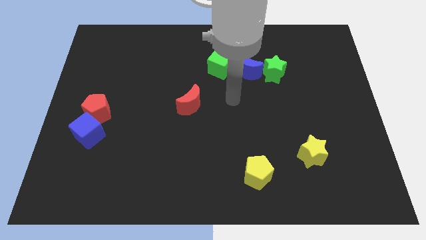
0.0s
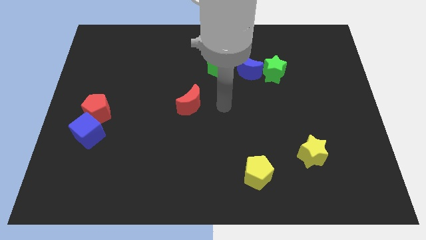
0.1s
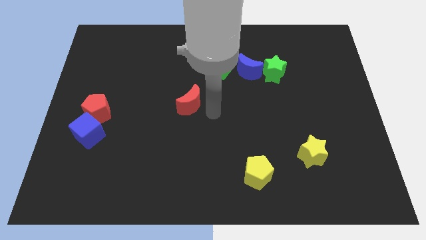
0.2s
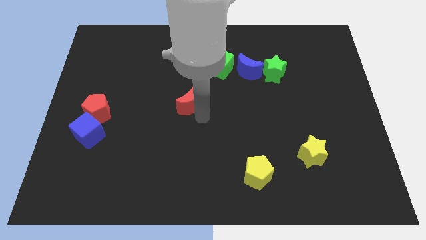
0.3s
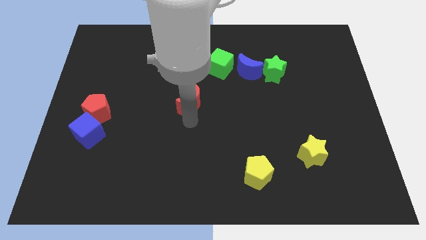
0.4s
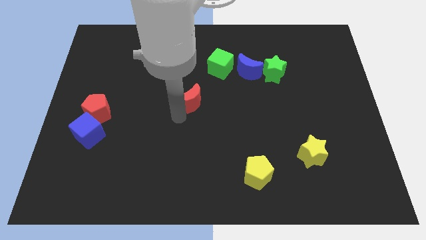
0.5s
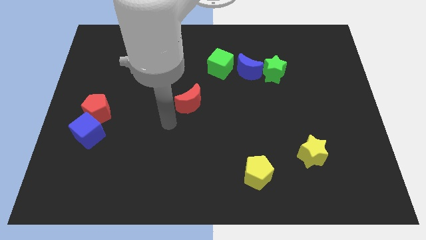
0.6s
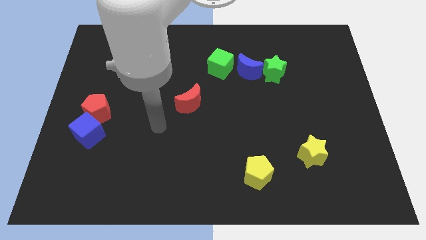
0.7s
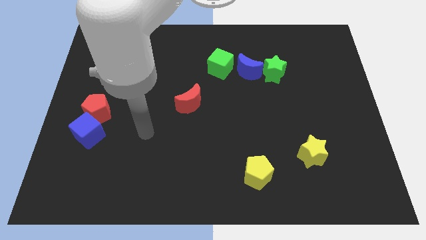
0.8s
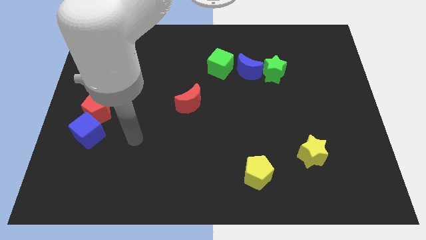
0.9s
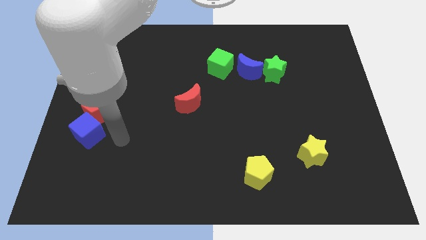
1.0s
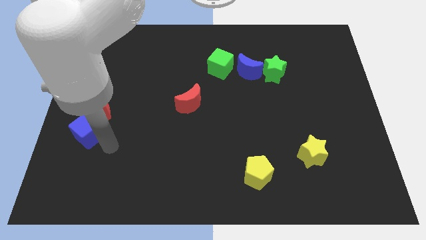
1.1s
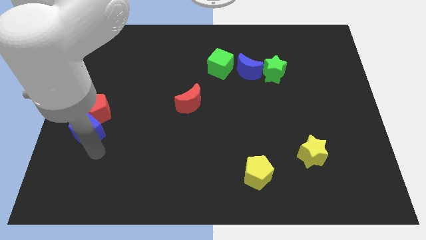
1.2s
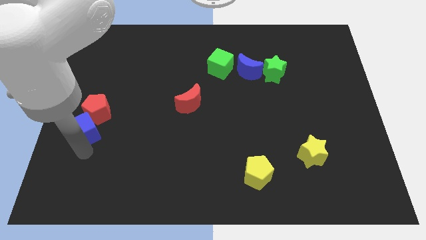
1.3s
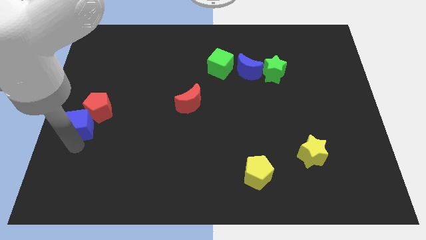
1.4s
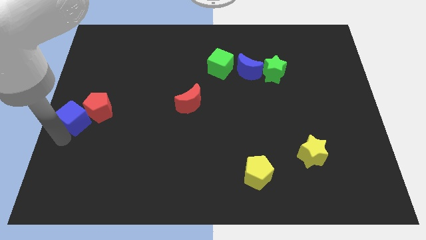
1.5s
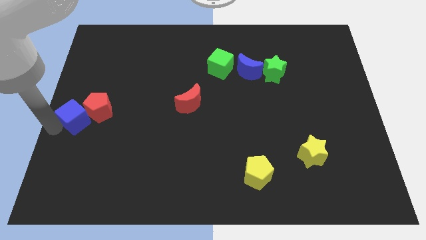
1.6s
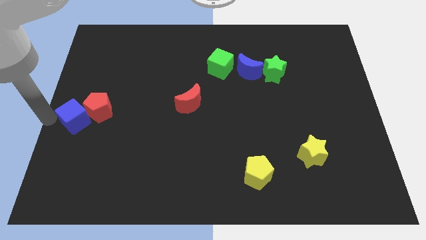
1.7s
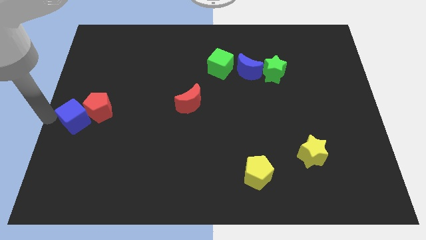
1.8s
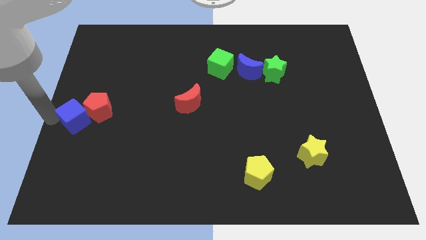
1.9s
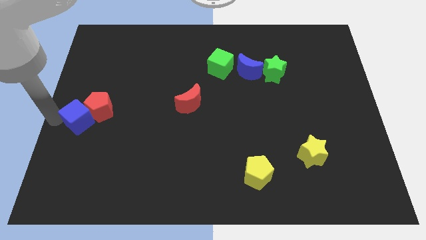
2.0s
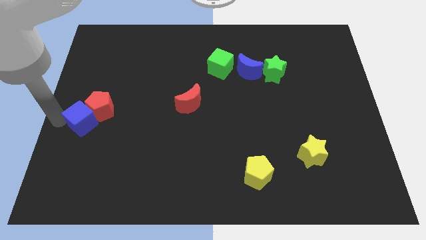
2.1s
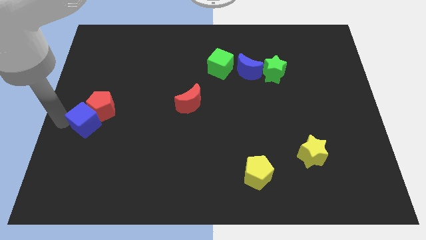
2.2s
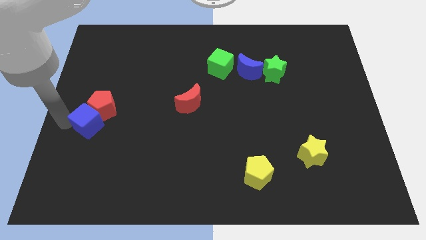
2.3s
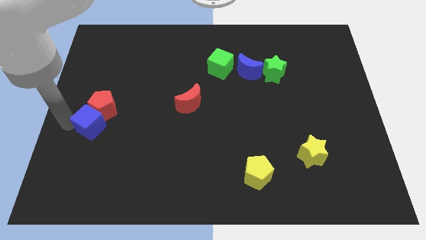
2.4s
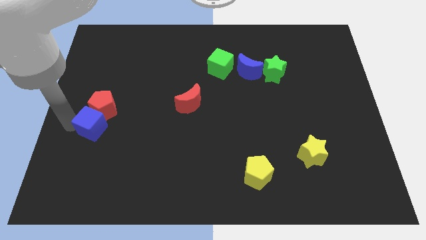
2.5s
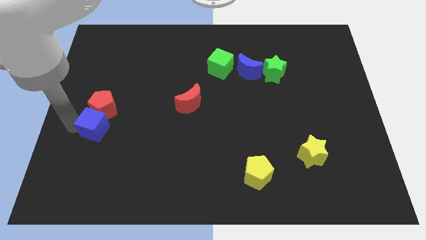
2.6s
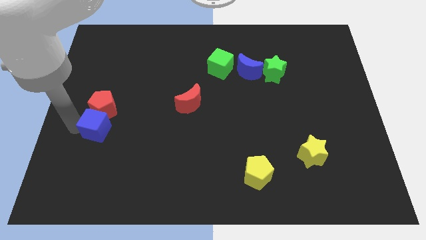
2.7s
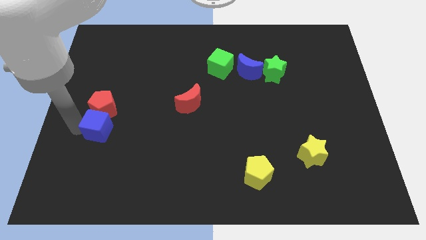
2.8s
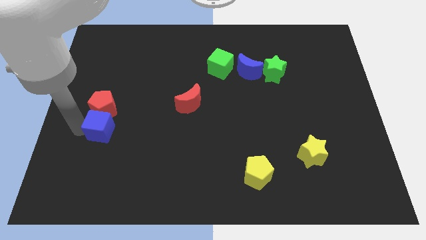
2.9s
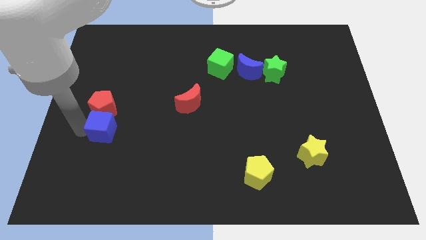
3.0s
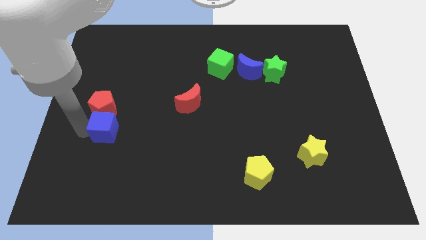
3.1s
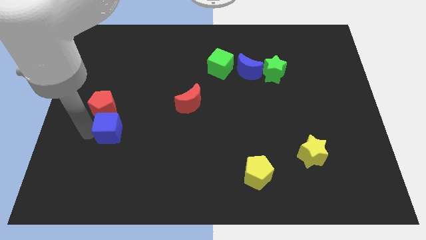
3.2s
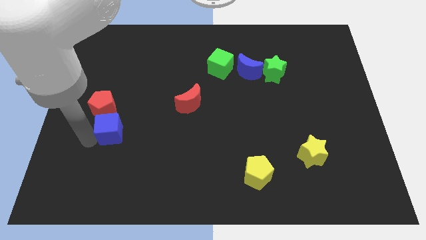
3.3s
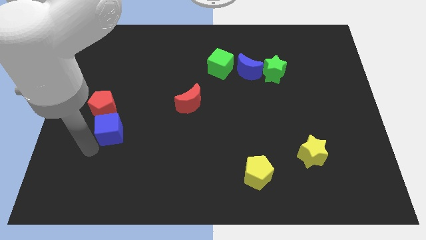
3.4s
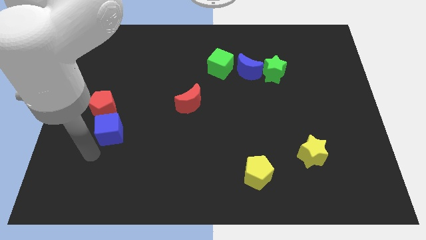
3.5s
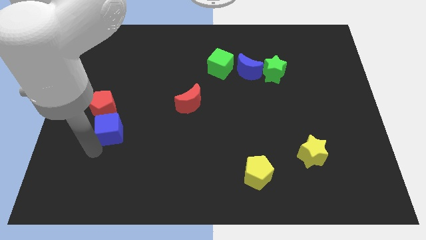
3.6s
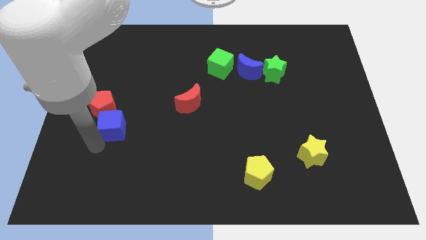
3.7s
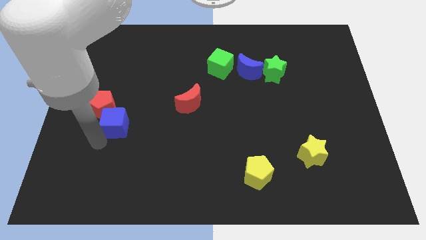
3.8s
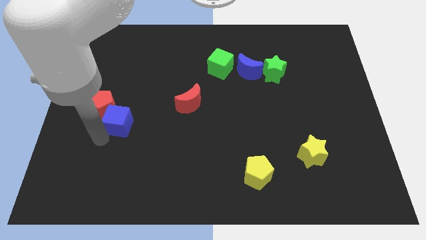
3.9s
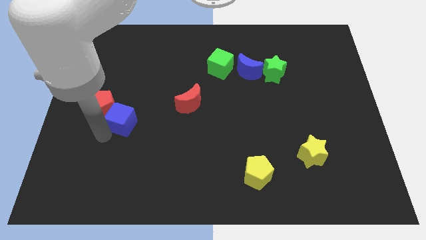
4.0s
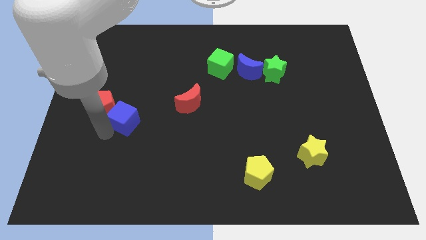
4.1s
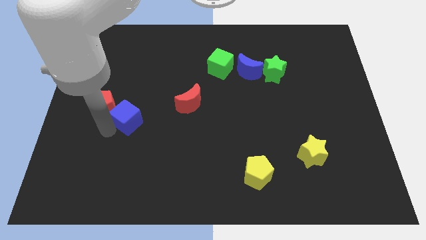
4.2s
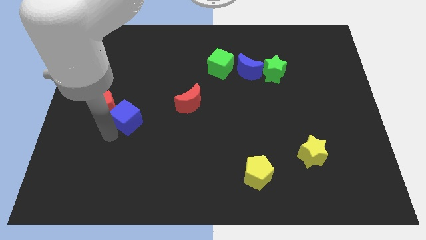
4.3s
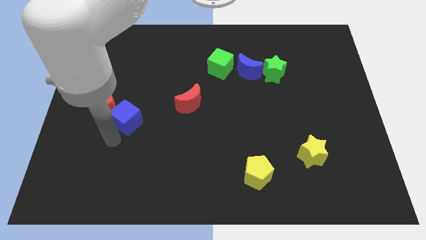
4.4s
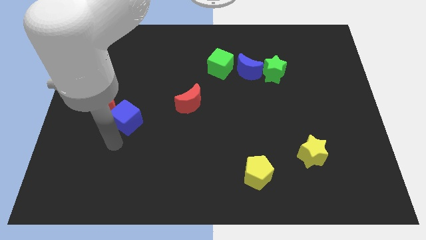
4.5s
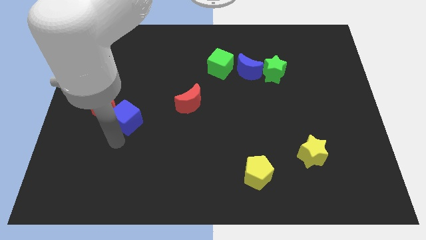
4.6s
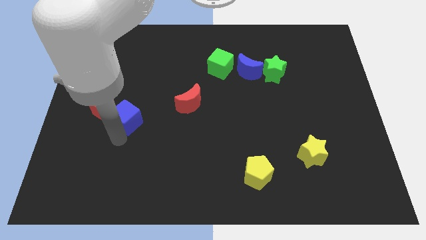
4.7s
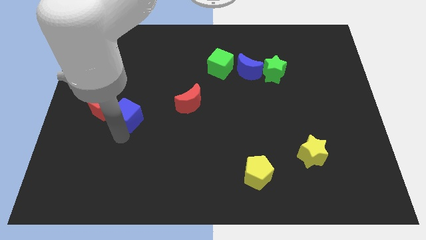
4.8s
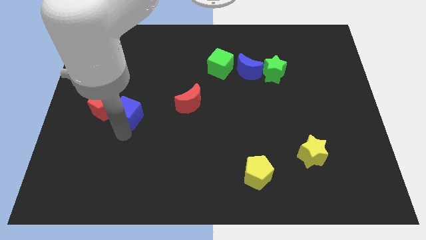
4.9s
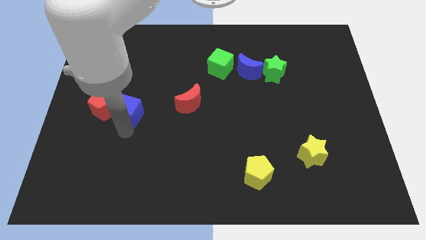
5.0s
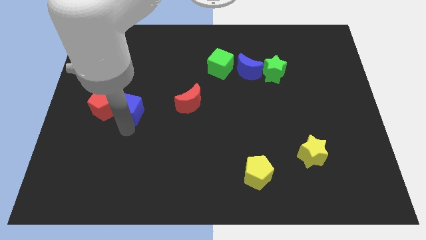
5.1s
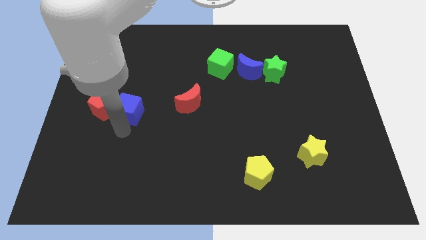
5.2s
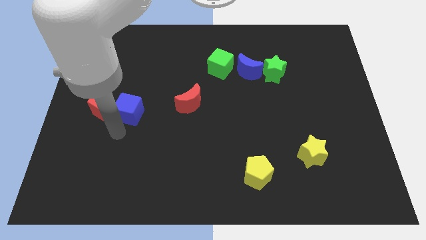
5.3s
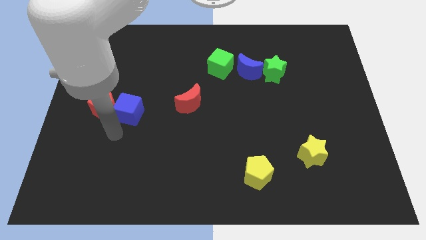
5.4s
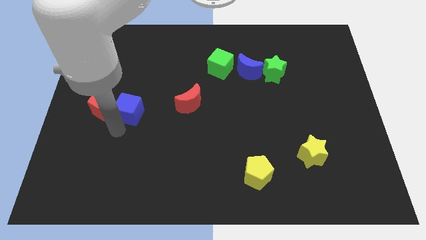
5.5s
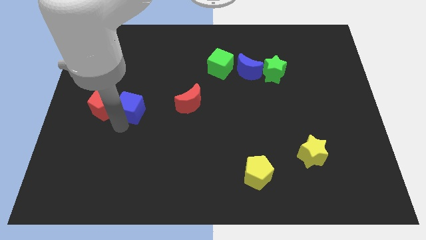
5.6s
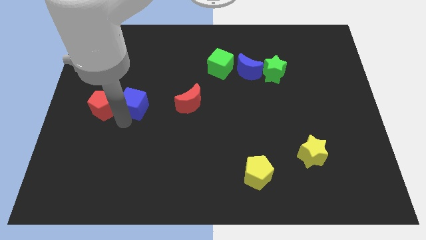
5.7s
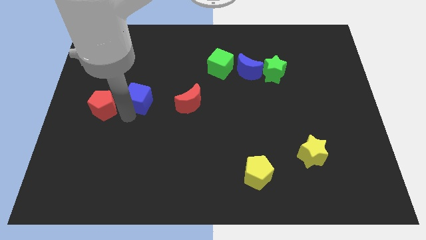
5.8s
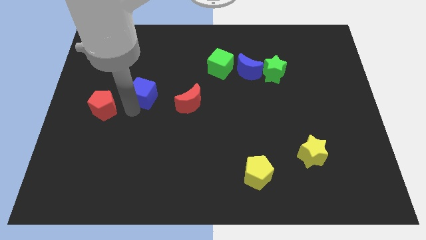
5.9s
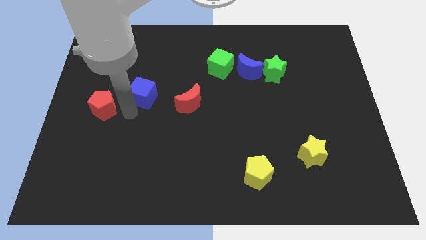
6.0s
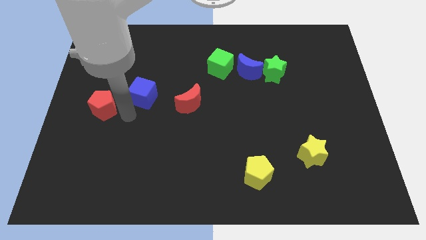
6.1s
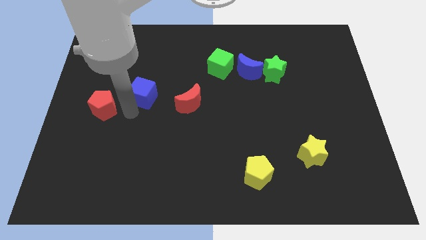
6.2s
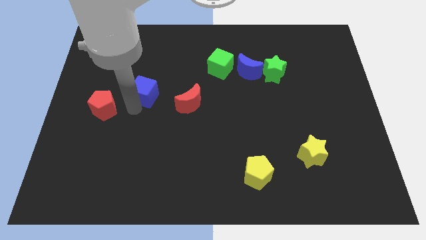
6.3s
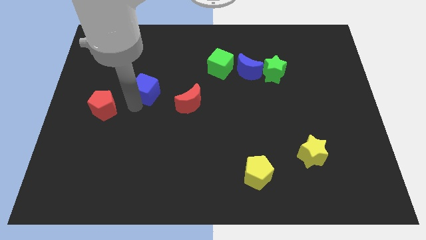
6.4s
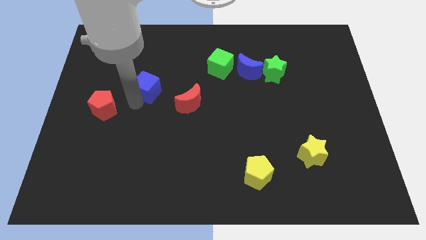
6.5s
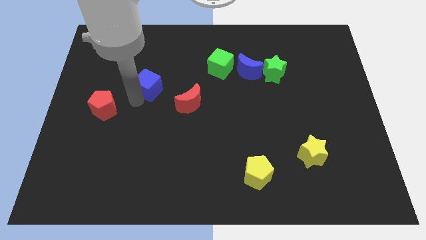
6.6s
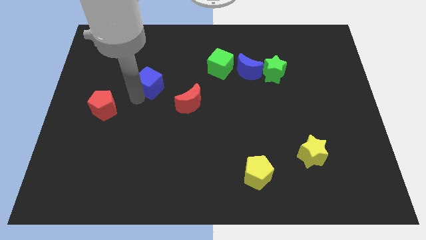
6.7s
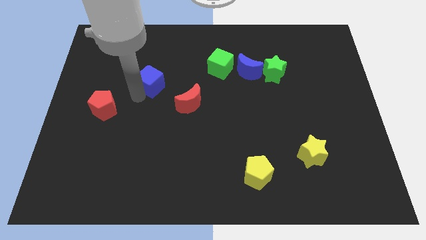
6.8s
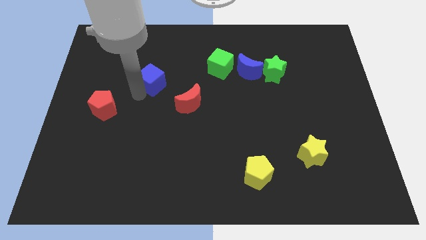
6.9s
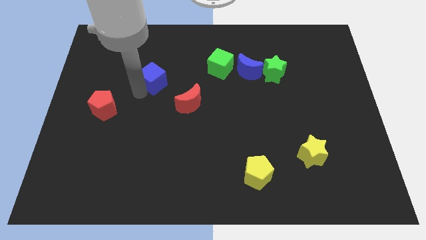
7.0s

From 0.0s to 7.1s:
push the blue cube diagonally upwards and to the right

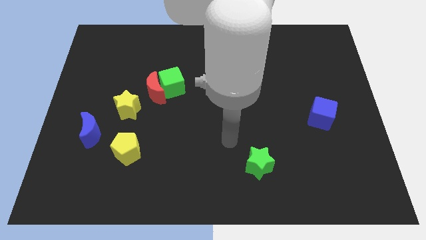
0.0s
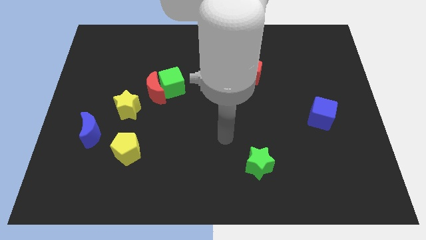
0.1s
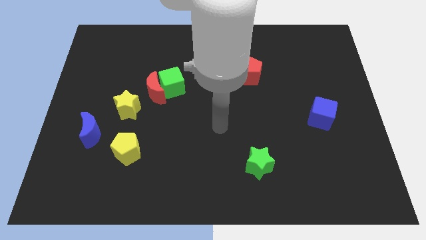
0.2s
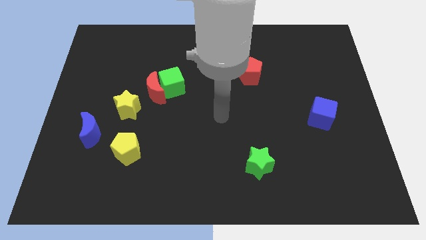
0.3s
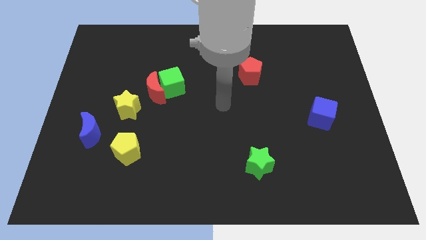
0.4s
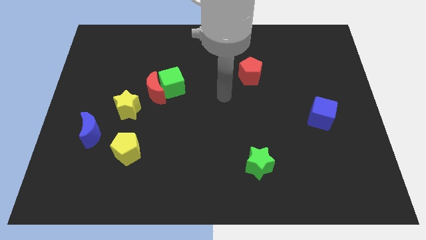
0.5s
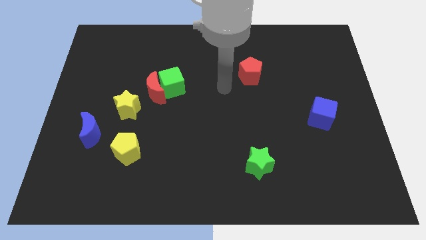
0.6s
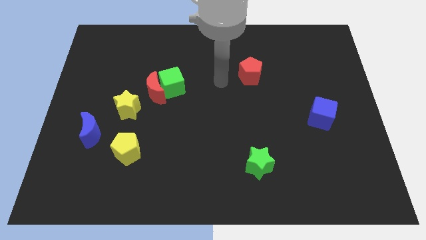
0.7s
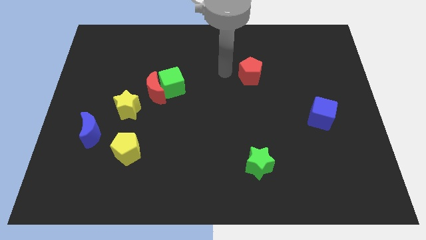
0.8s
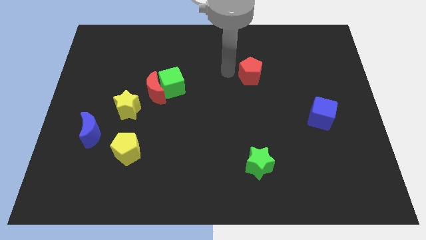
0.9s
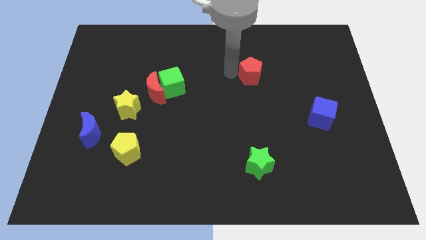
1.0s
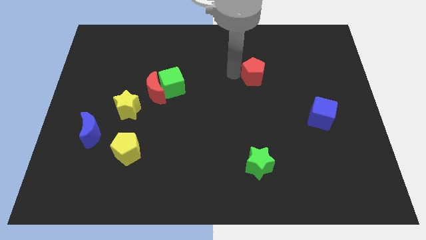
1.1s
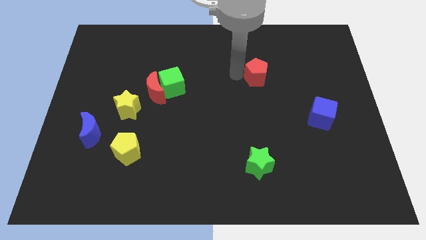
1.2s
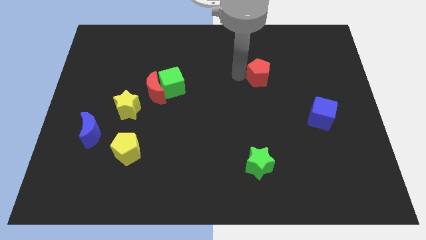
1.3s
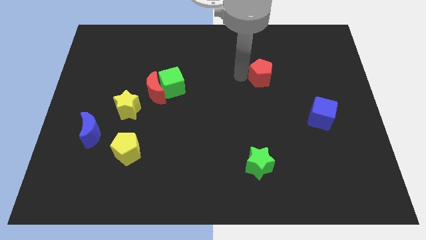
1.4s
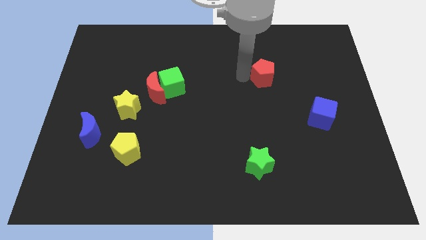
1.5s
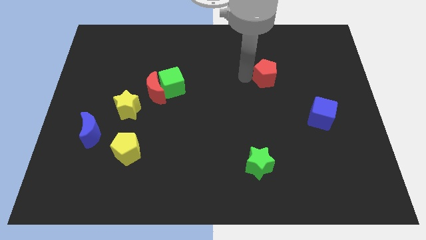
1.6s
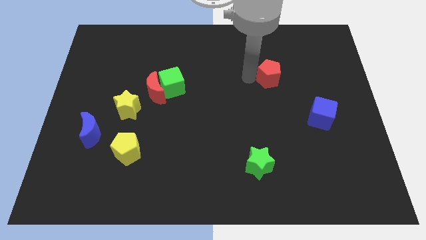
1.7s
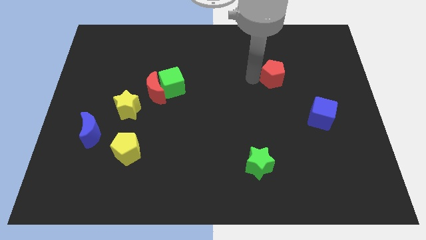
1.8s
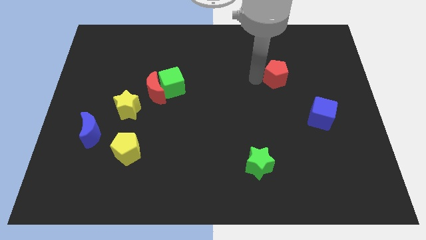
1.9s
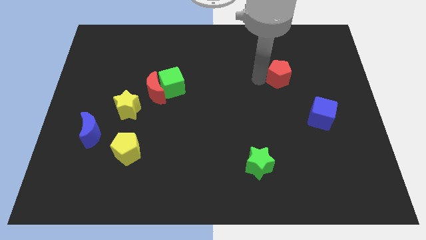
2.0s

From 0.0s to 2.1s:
push the red pentagon slightly to the right
